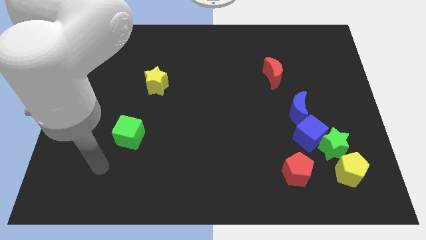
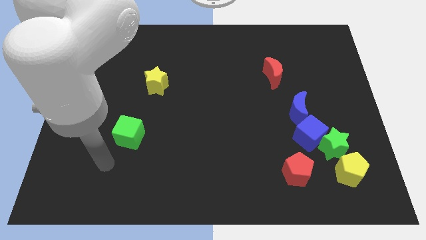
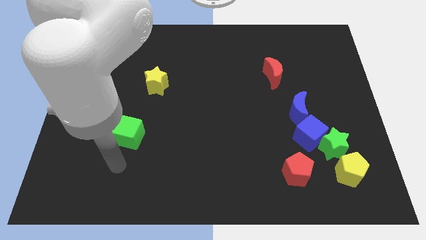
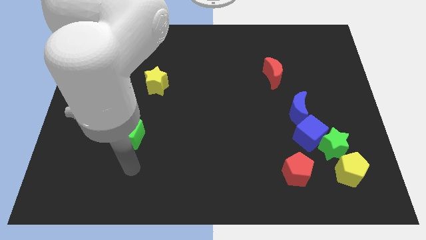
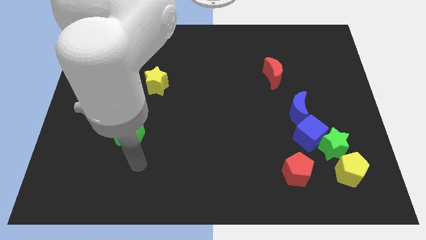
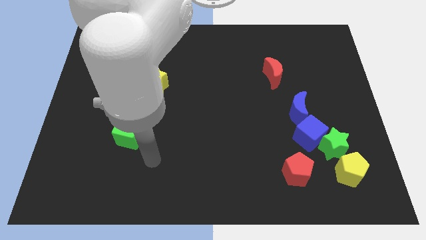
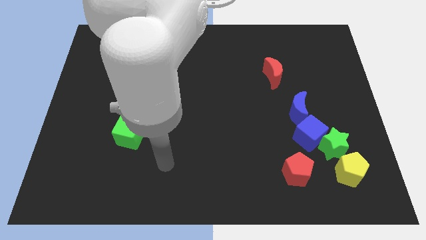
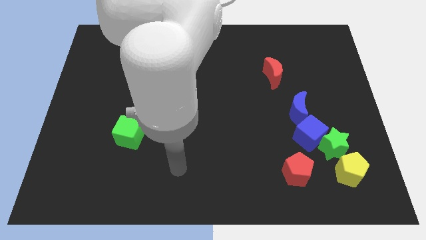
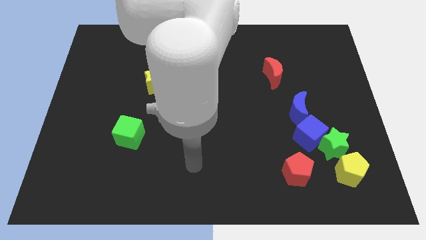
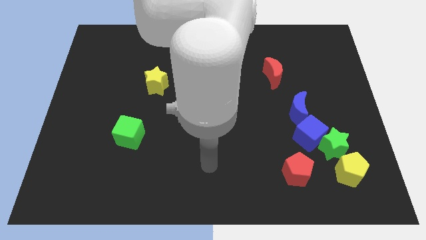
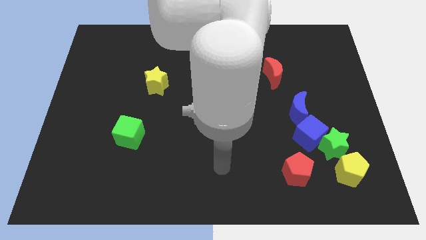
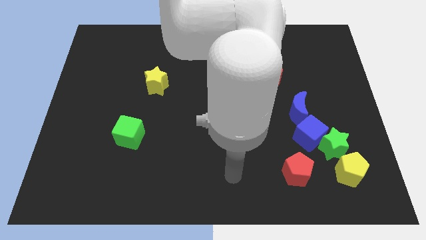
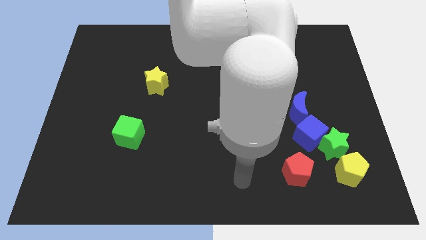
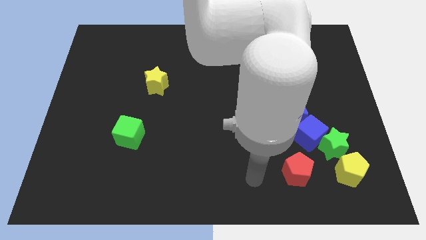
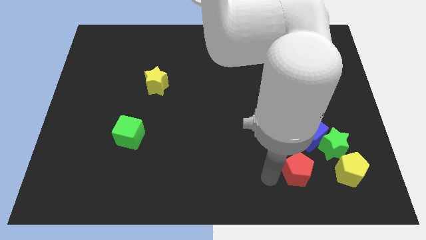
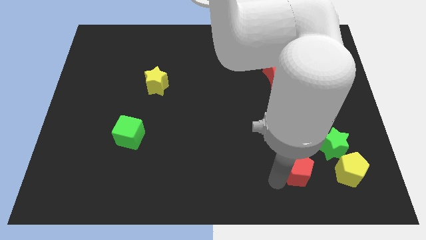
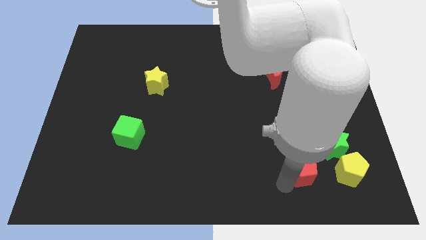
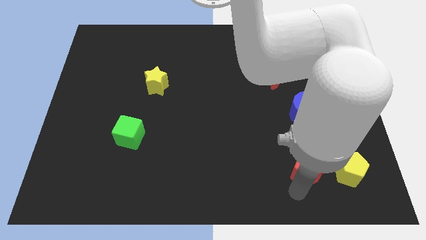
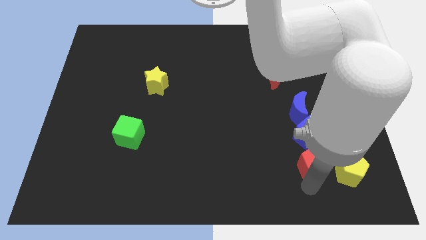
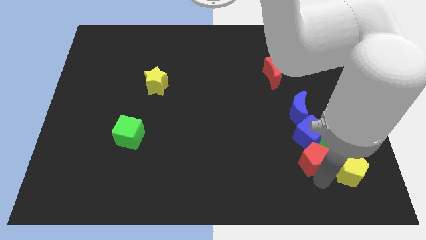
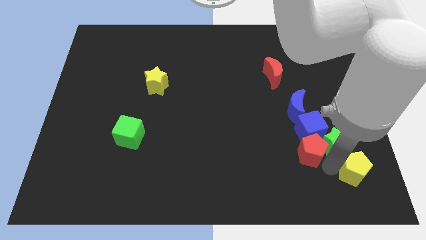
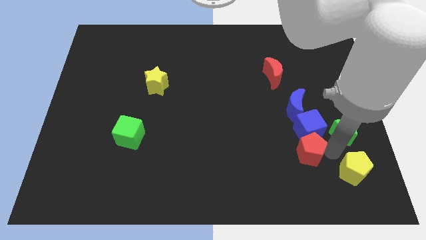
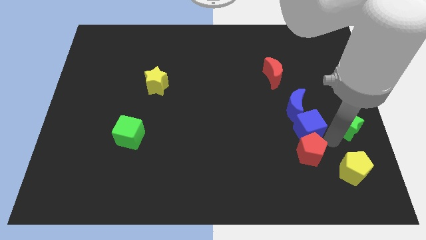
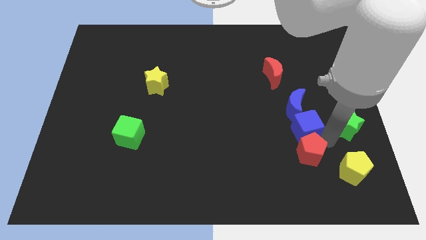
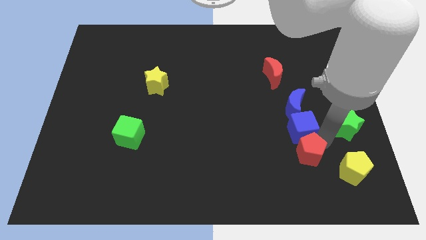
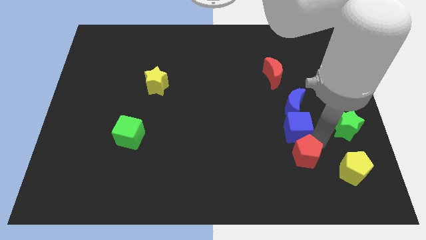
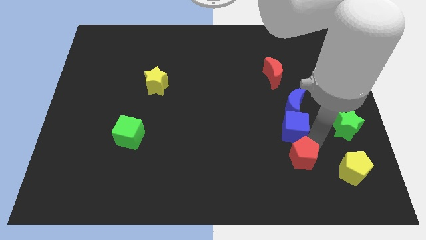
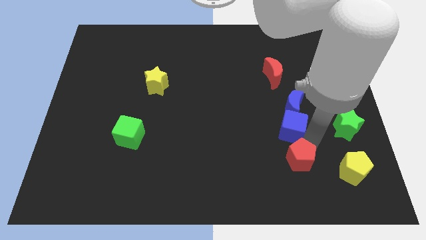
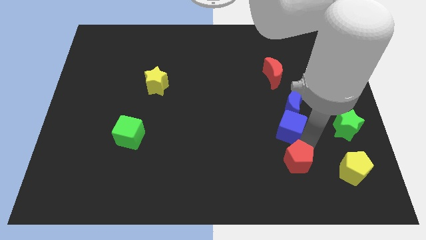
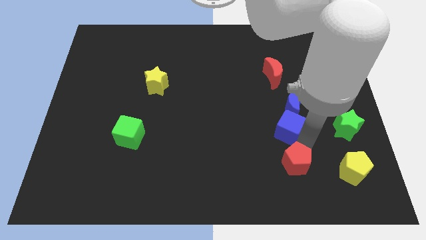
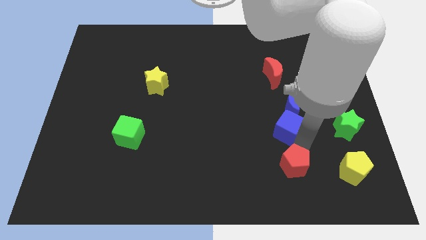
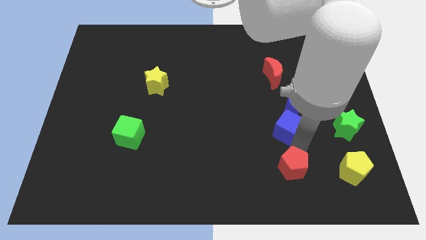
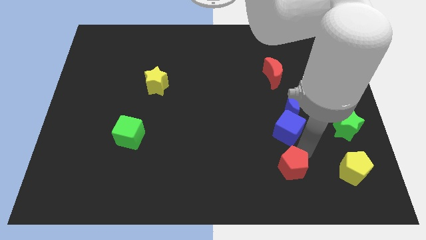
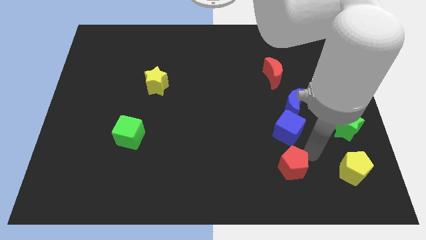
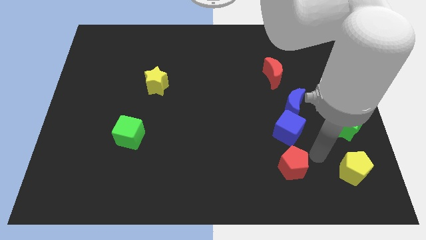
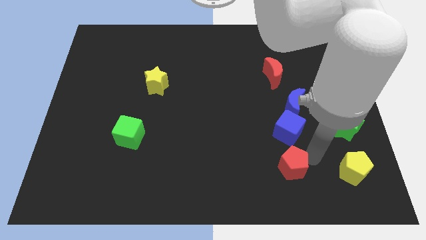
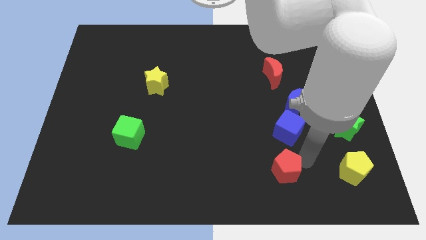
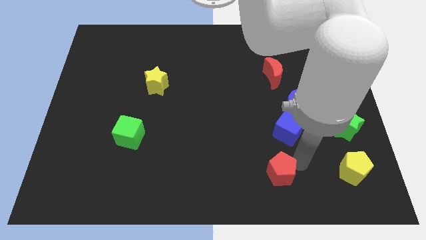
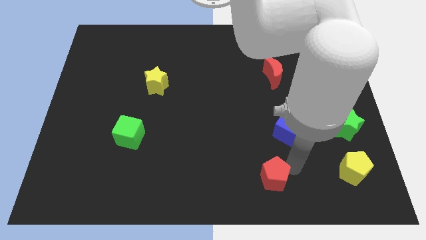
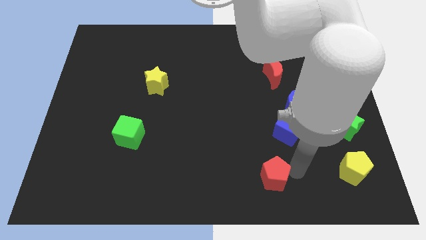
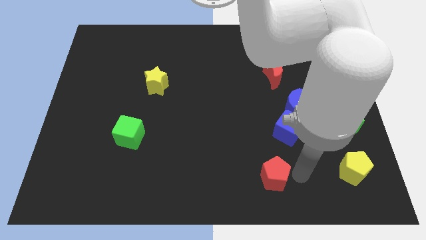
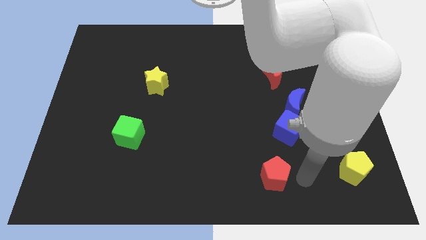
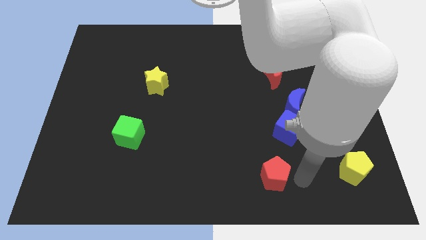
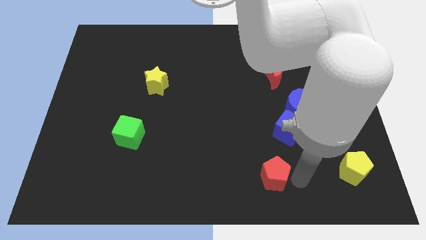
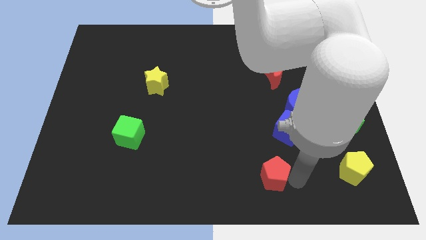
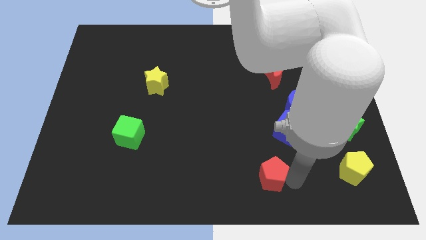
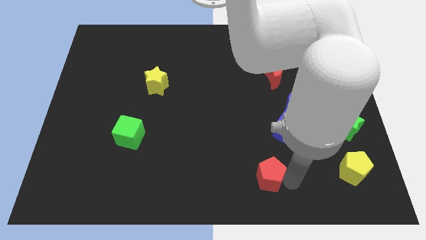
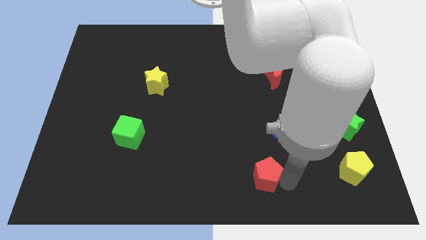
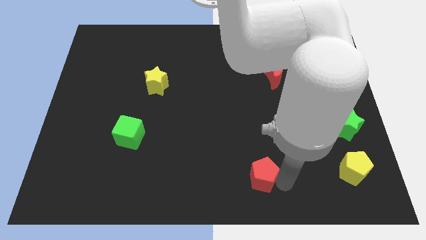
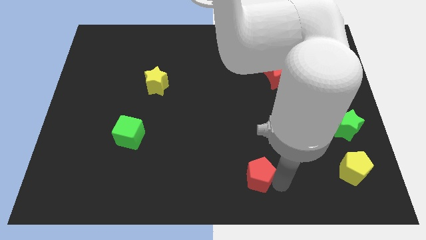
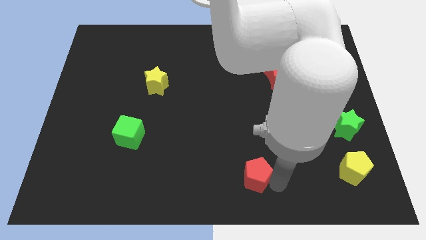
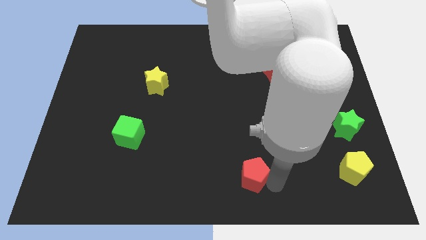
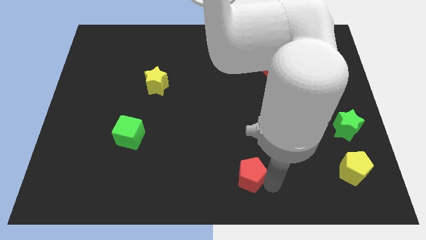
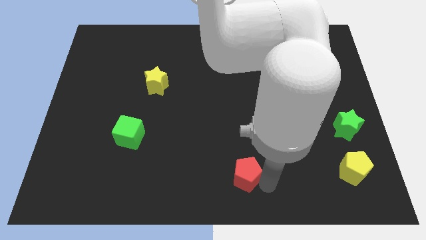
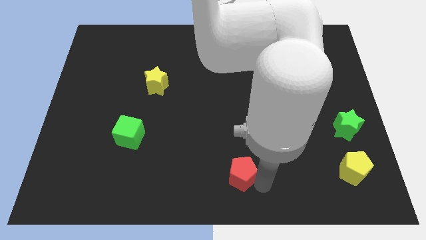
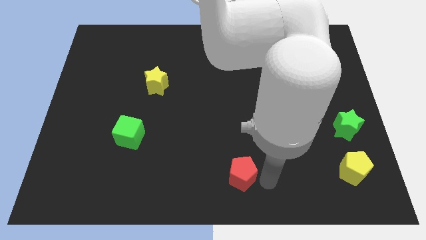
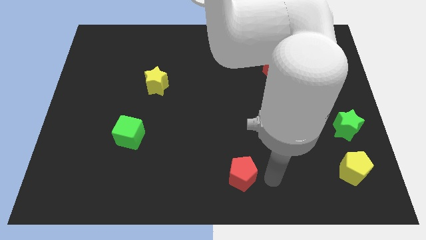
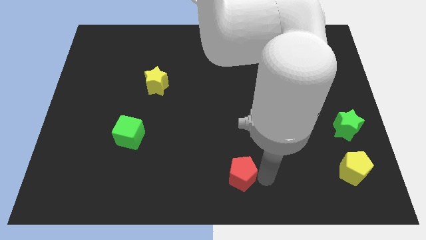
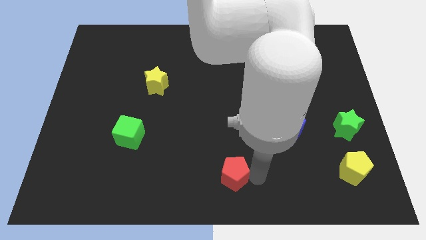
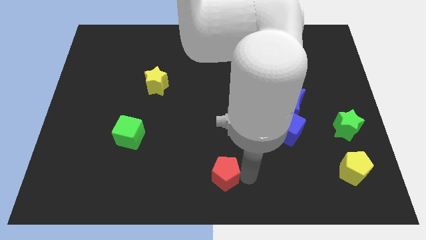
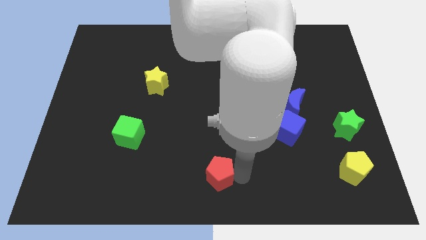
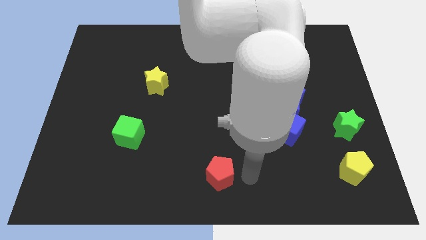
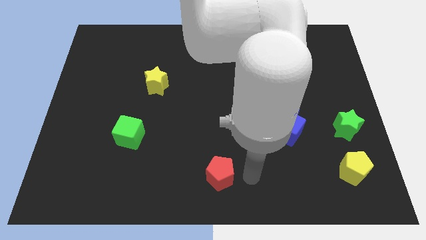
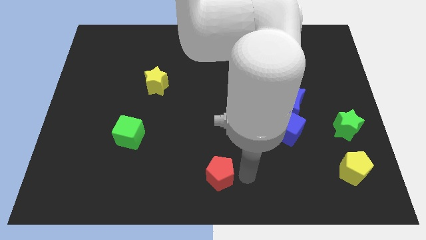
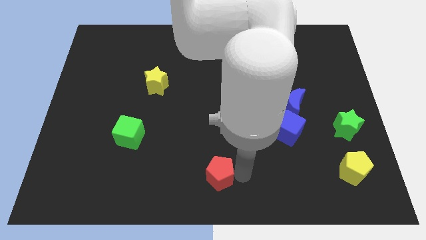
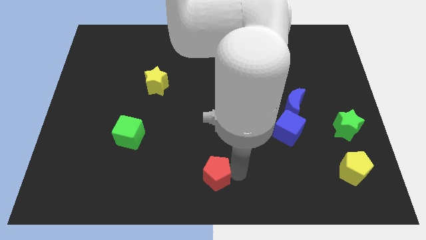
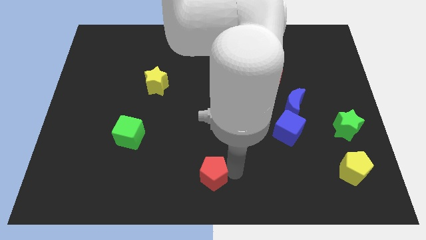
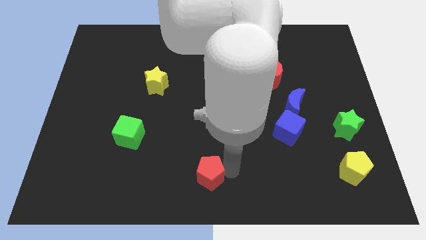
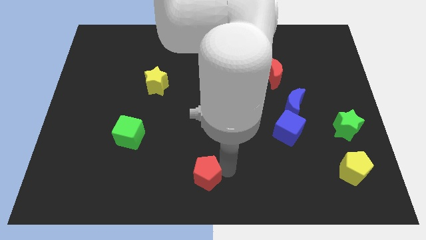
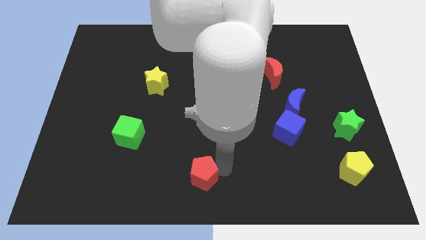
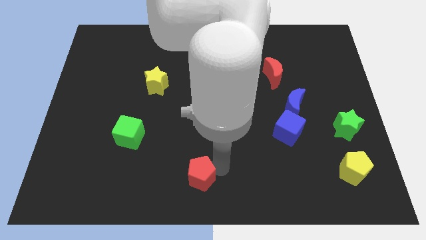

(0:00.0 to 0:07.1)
move the red pentagon left

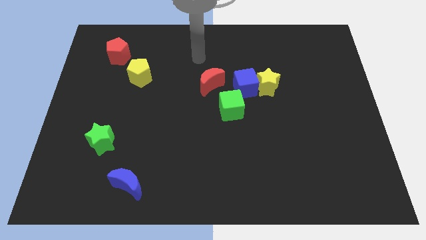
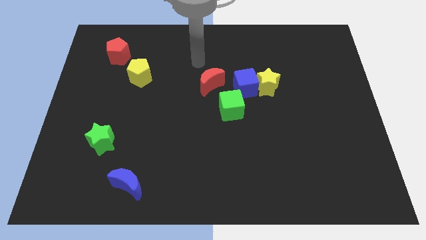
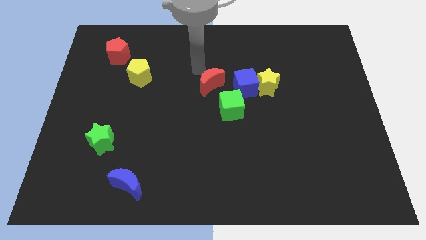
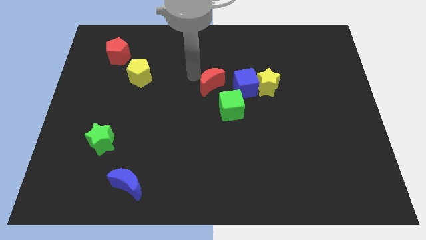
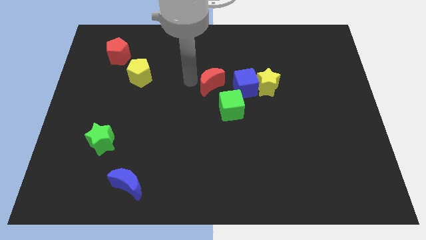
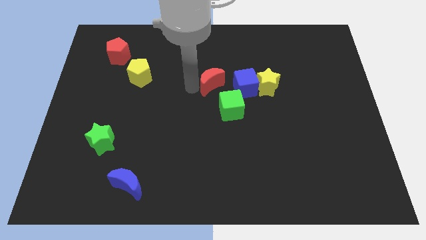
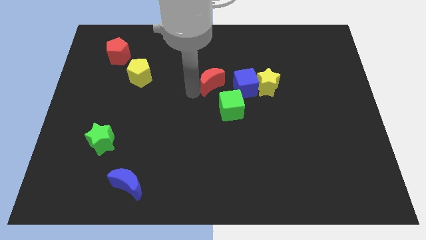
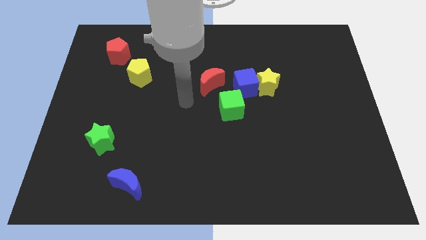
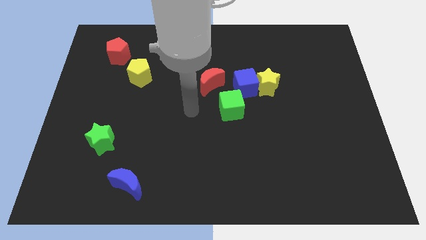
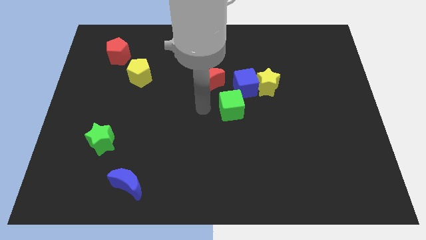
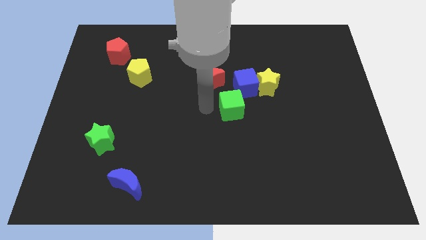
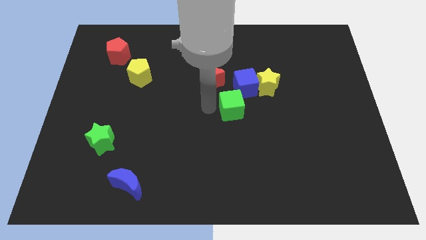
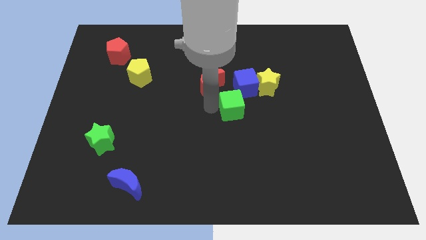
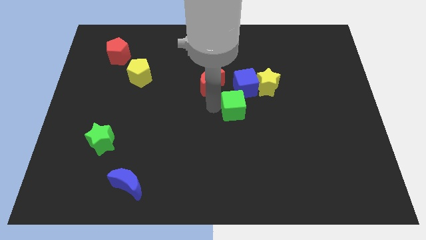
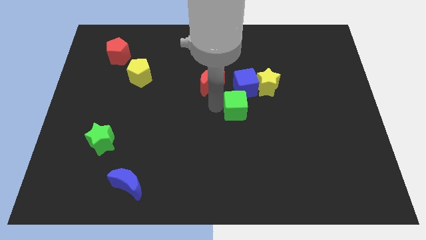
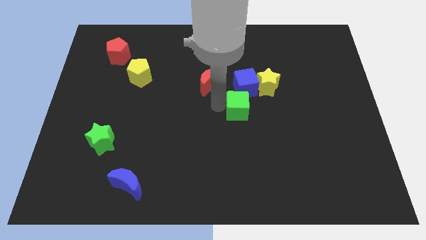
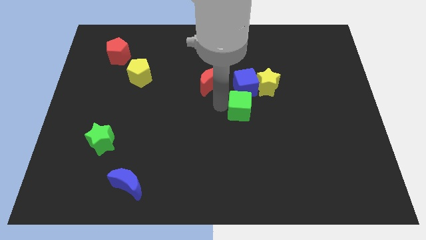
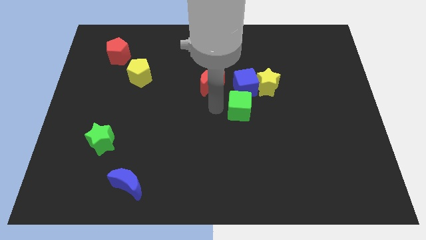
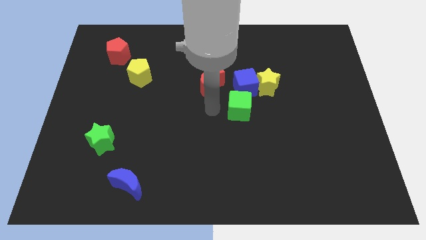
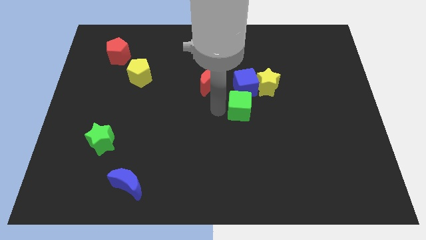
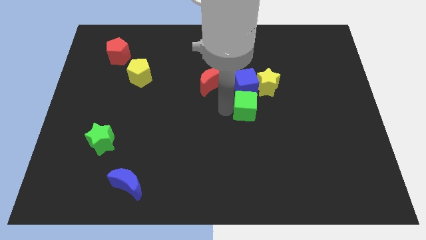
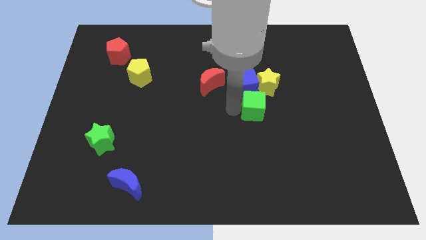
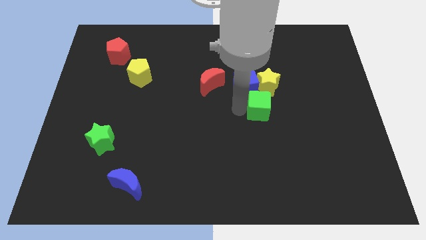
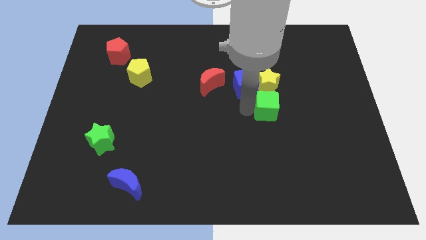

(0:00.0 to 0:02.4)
push the green cube right a little
